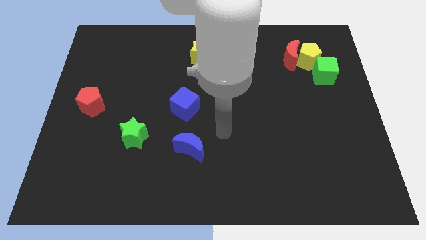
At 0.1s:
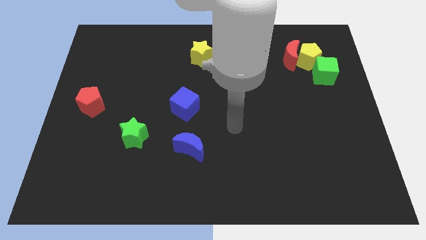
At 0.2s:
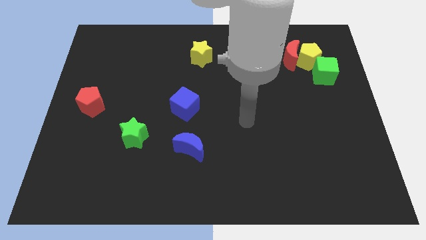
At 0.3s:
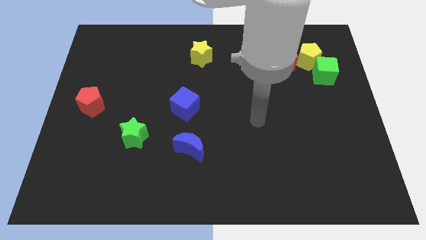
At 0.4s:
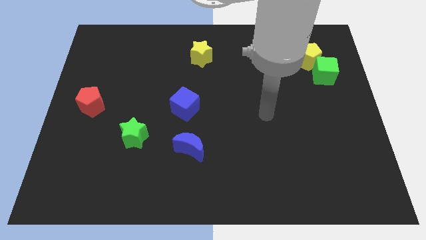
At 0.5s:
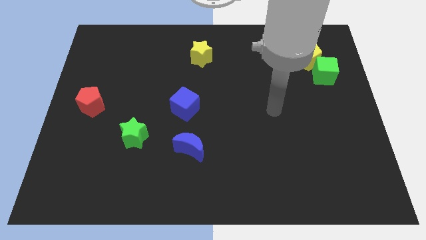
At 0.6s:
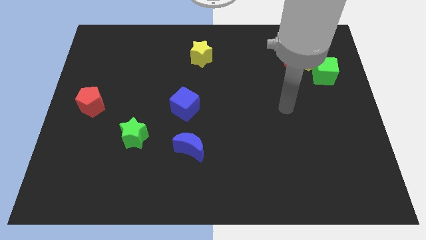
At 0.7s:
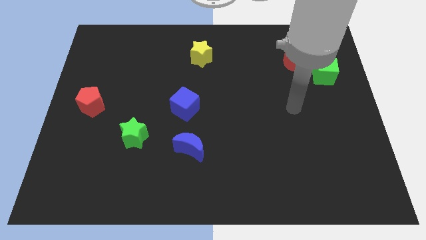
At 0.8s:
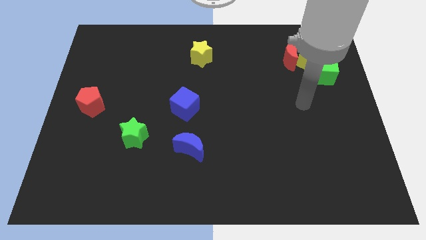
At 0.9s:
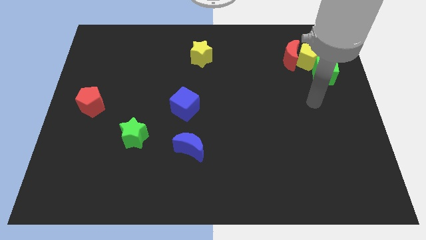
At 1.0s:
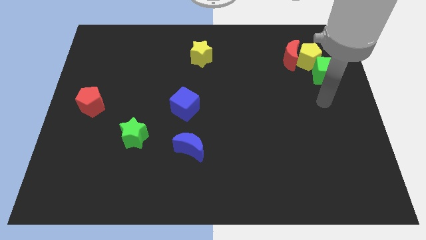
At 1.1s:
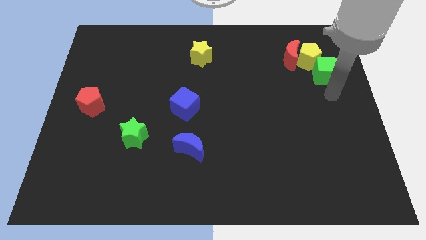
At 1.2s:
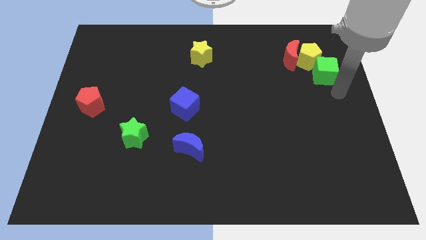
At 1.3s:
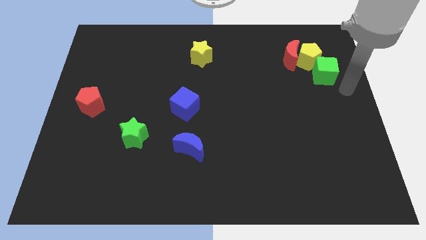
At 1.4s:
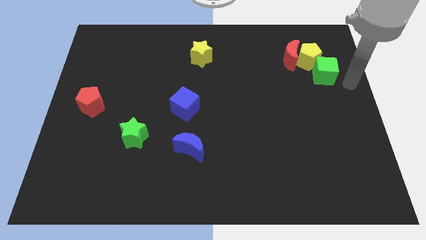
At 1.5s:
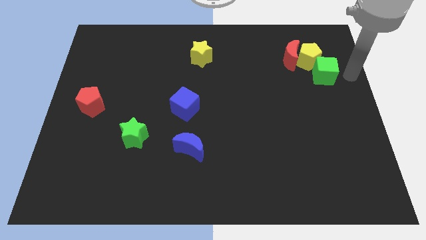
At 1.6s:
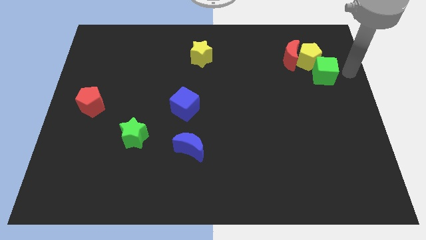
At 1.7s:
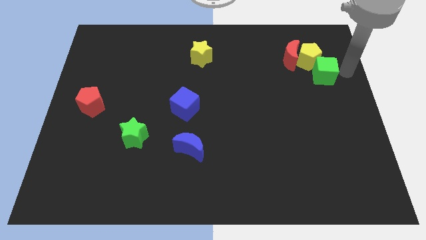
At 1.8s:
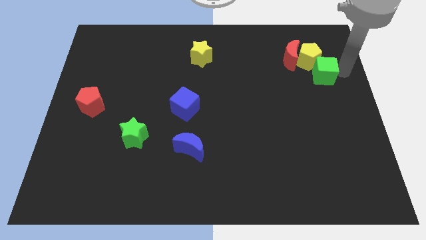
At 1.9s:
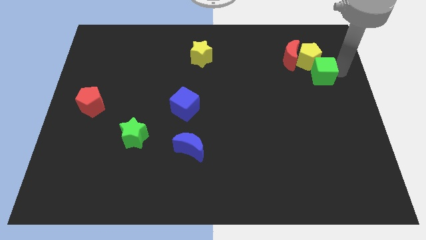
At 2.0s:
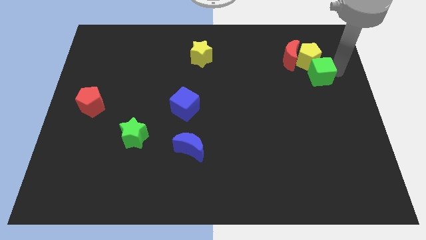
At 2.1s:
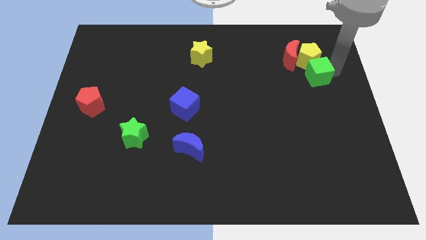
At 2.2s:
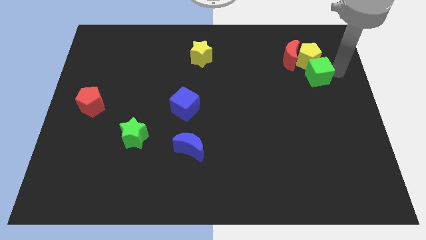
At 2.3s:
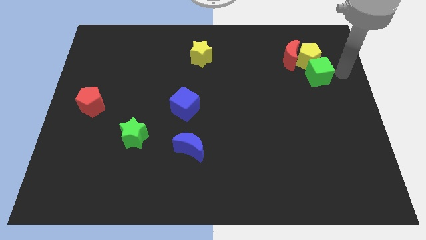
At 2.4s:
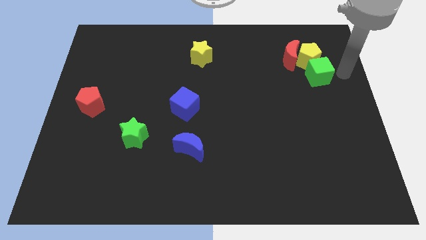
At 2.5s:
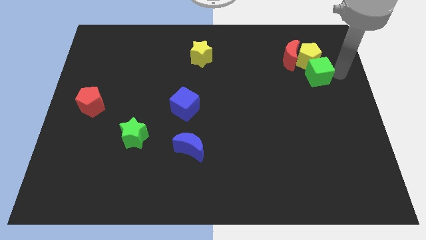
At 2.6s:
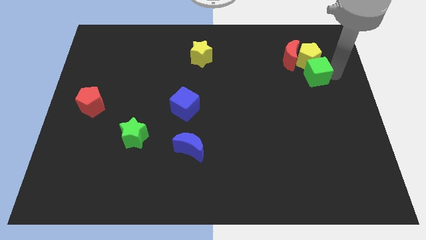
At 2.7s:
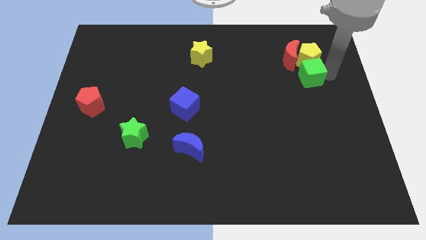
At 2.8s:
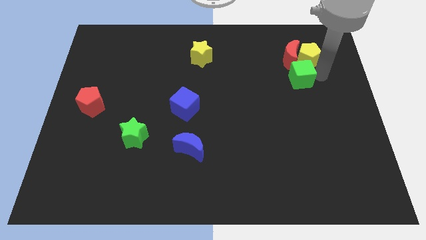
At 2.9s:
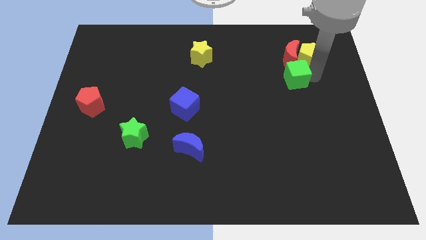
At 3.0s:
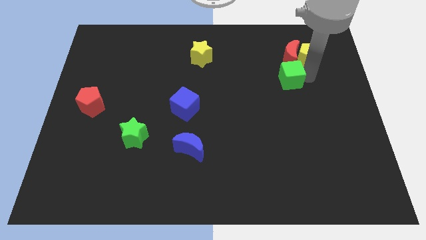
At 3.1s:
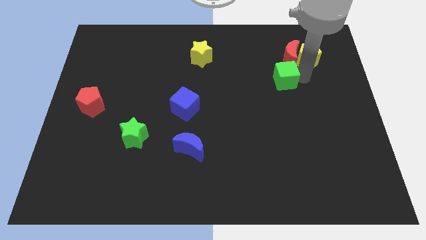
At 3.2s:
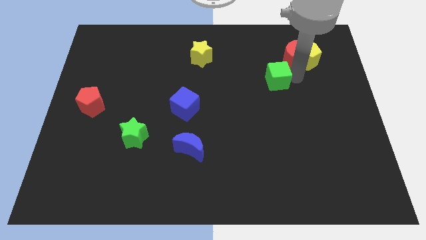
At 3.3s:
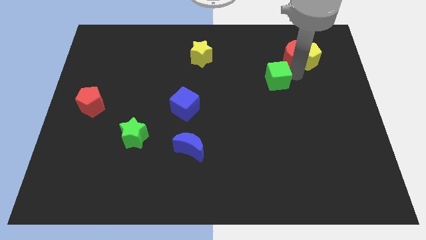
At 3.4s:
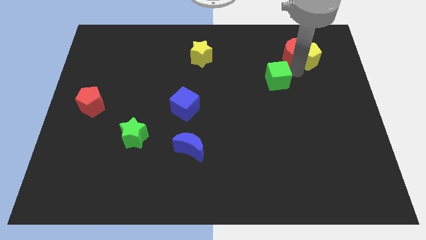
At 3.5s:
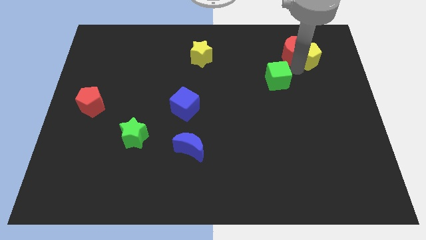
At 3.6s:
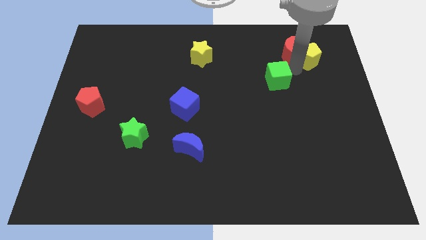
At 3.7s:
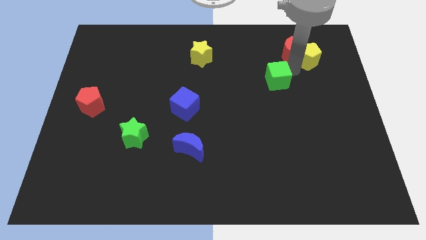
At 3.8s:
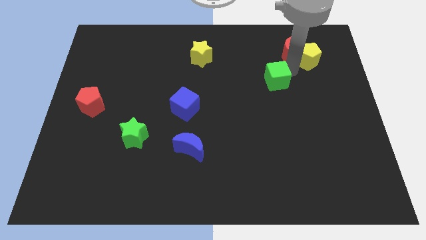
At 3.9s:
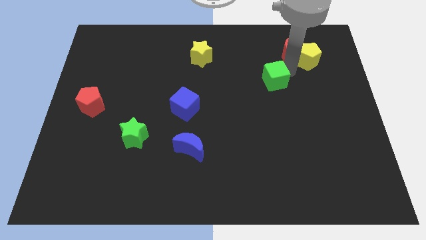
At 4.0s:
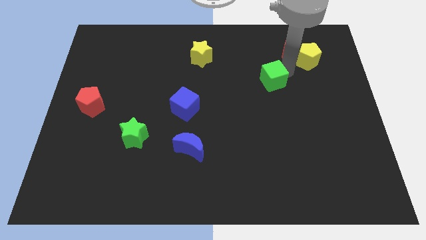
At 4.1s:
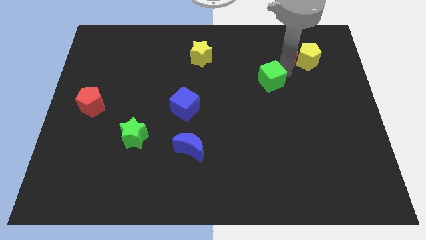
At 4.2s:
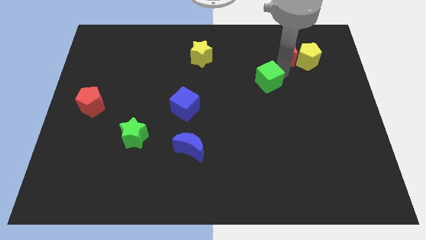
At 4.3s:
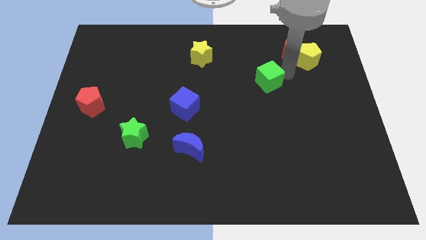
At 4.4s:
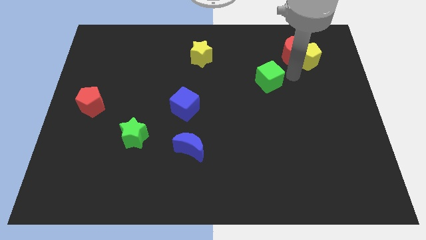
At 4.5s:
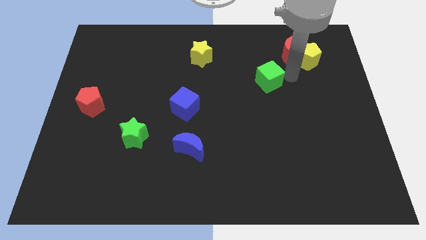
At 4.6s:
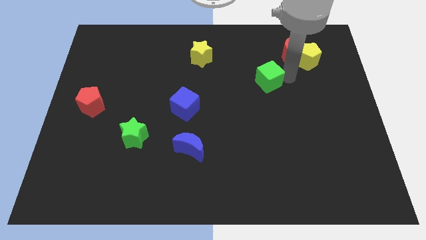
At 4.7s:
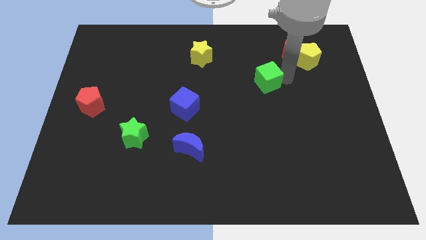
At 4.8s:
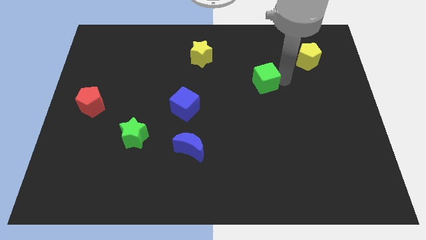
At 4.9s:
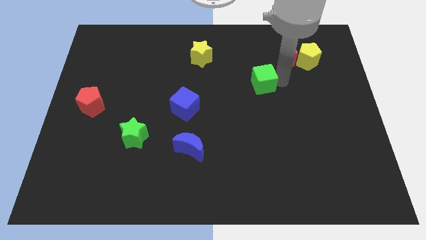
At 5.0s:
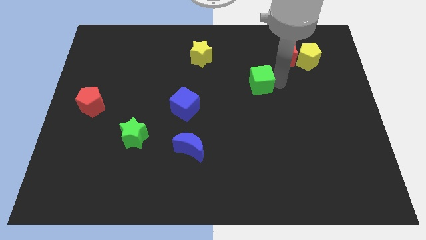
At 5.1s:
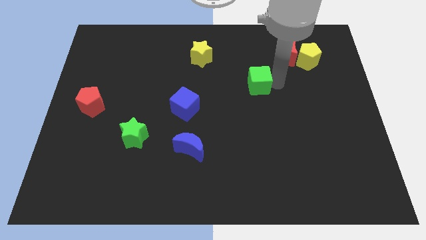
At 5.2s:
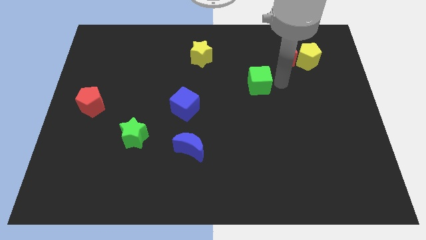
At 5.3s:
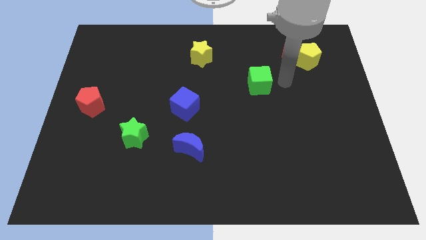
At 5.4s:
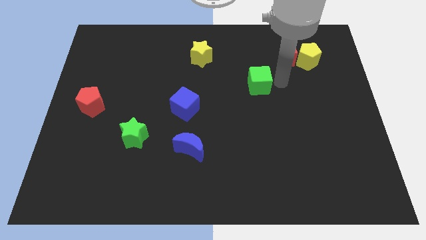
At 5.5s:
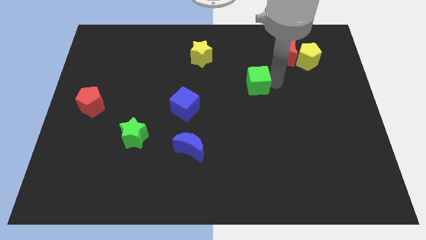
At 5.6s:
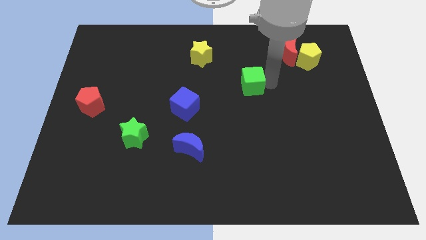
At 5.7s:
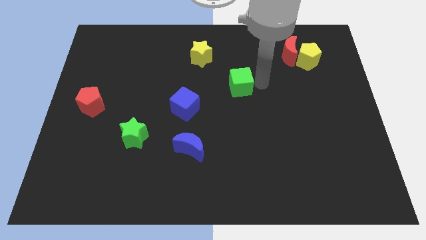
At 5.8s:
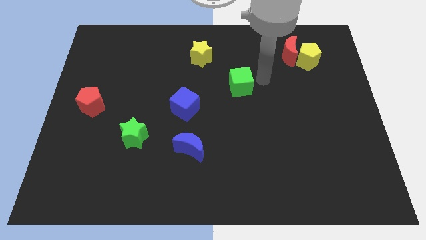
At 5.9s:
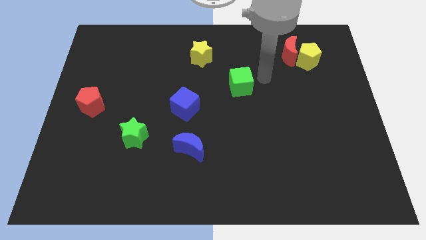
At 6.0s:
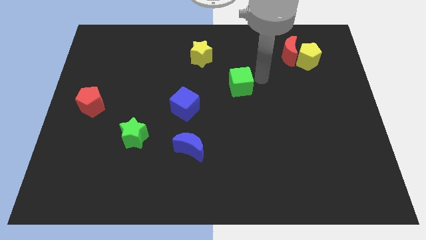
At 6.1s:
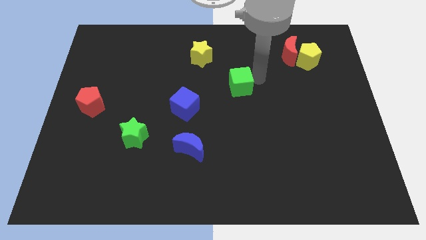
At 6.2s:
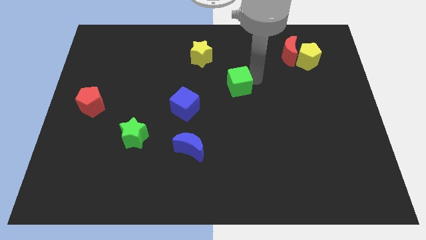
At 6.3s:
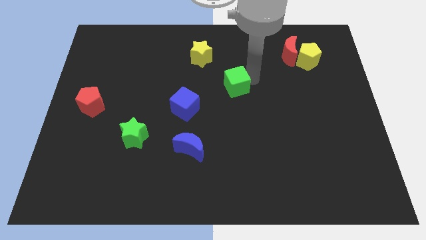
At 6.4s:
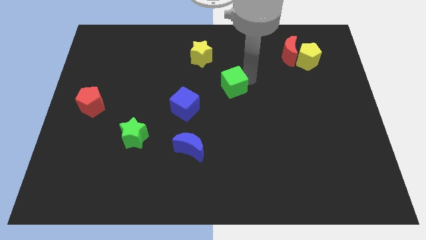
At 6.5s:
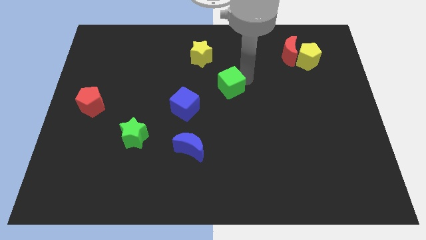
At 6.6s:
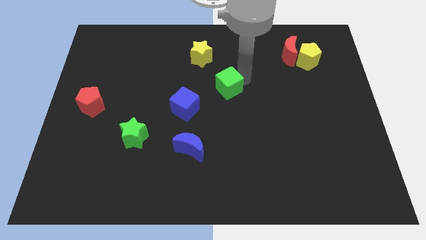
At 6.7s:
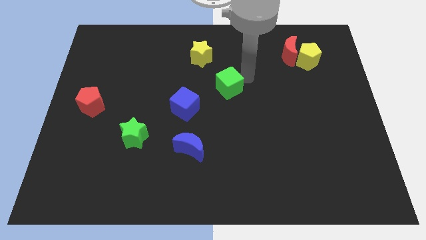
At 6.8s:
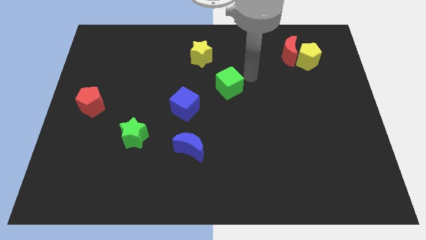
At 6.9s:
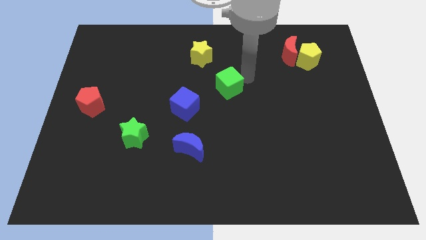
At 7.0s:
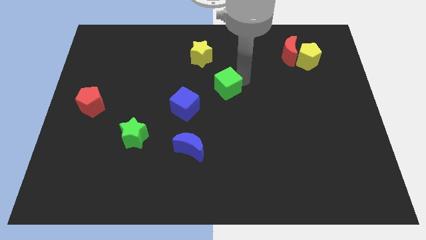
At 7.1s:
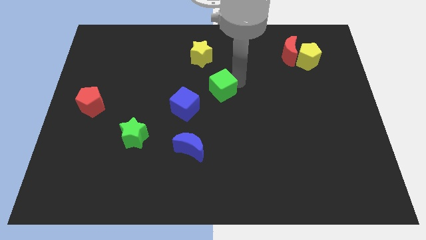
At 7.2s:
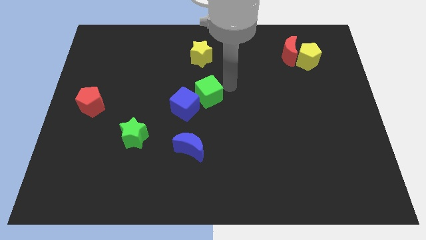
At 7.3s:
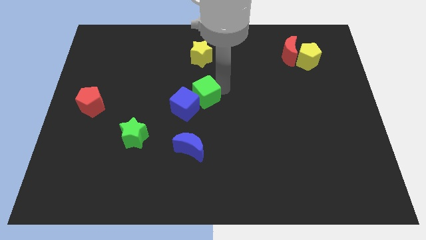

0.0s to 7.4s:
put the green cube close to the blue cube
